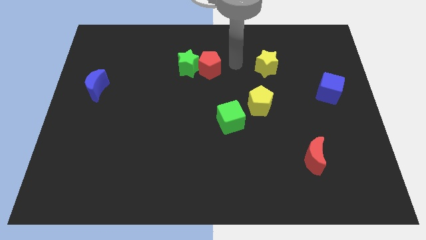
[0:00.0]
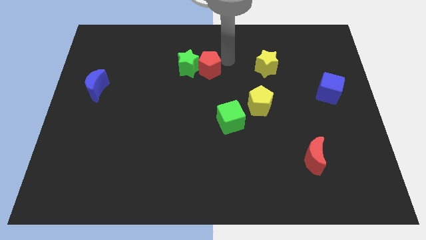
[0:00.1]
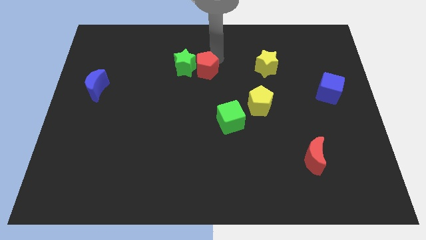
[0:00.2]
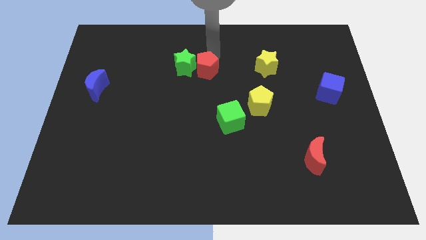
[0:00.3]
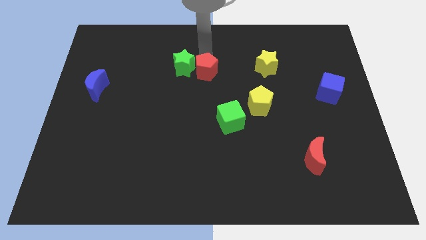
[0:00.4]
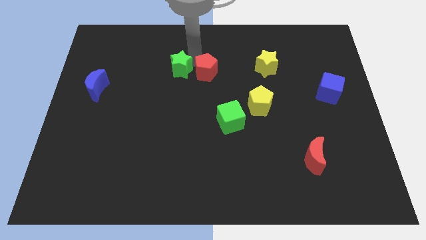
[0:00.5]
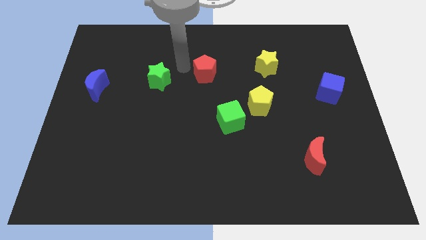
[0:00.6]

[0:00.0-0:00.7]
move the red pentagon away from the green star

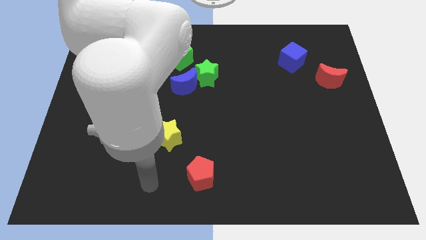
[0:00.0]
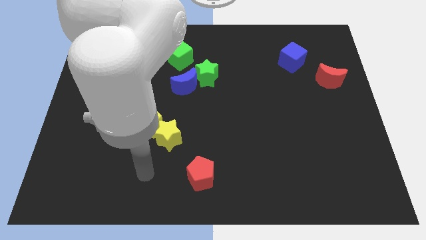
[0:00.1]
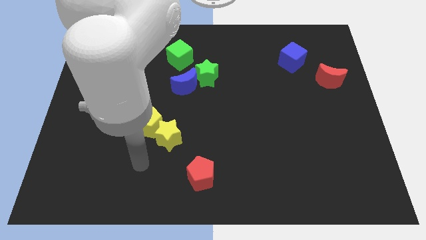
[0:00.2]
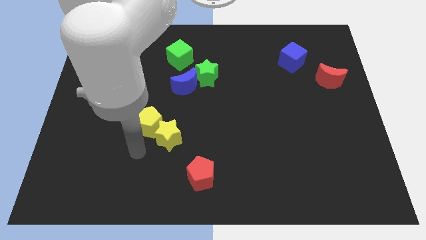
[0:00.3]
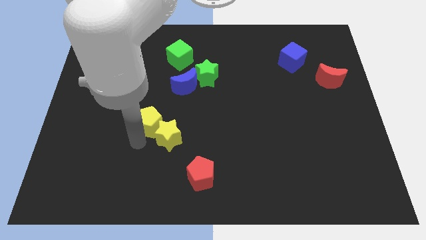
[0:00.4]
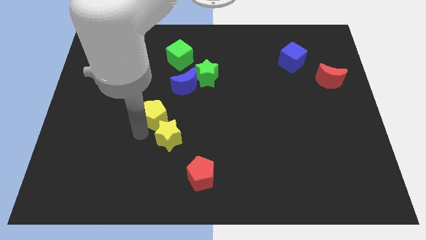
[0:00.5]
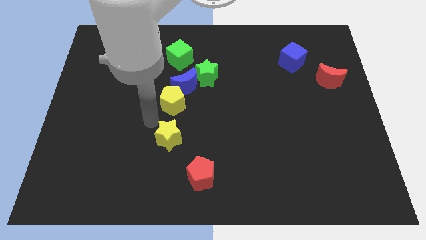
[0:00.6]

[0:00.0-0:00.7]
separate the yellow star from the yellow pentagon

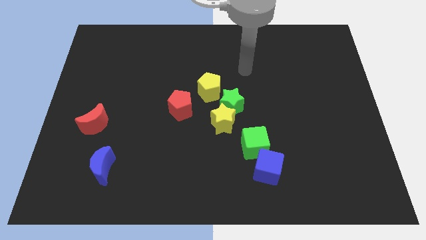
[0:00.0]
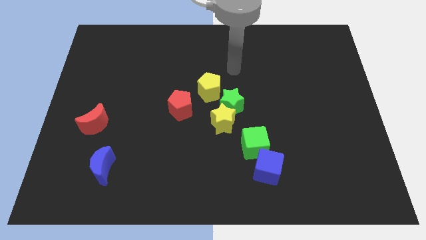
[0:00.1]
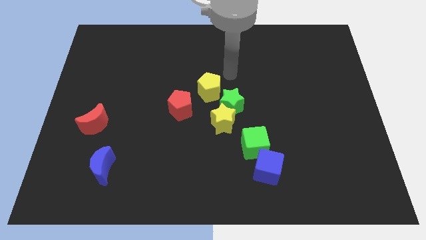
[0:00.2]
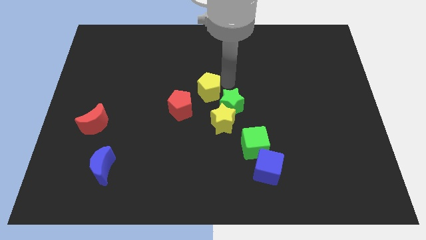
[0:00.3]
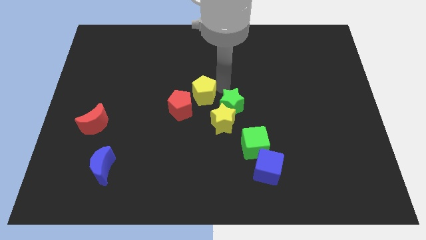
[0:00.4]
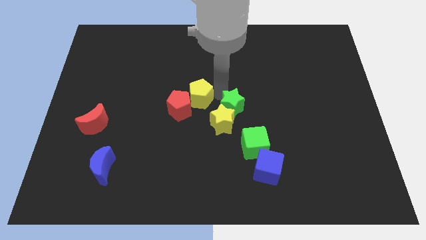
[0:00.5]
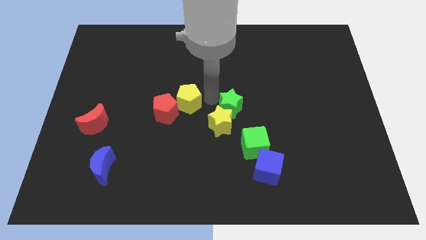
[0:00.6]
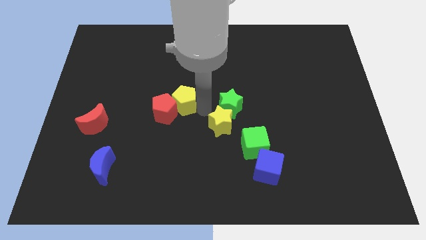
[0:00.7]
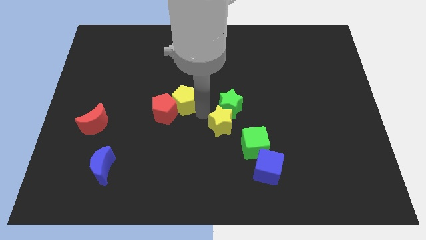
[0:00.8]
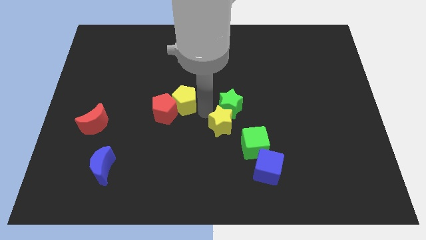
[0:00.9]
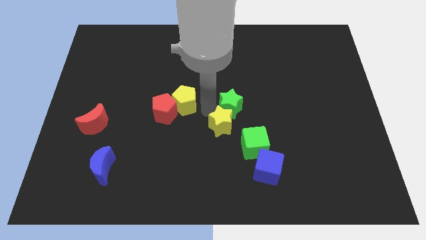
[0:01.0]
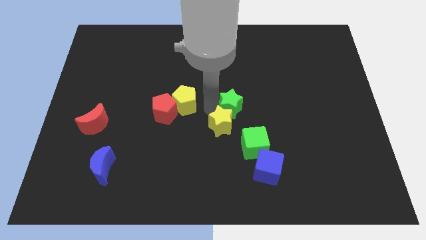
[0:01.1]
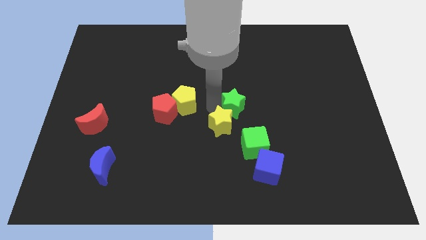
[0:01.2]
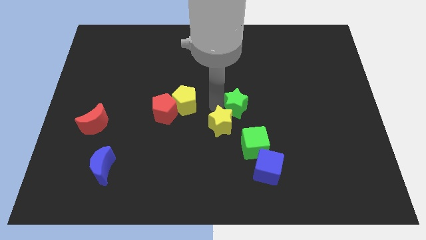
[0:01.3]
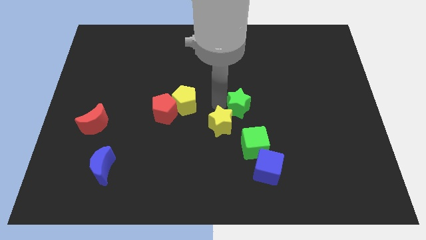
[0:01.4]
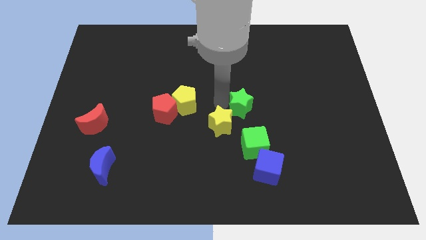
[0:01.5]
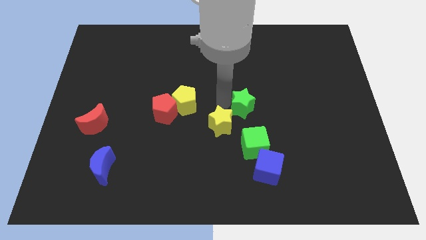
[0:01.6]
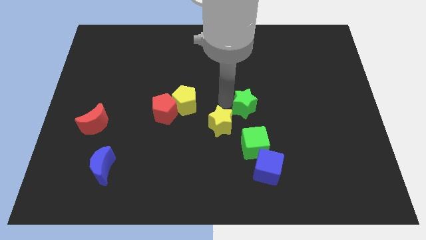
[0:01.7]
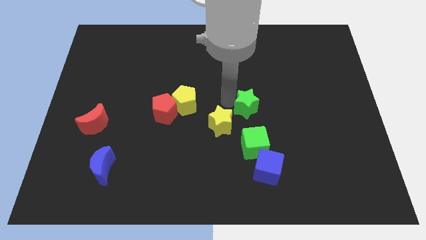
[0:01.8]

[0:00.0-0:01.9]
pull the green star apart from the yellow star and yellow pentagon

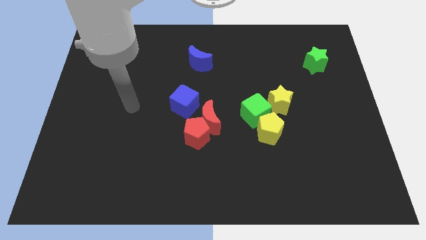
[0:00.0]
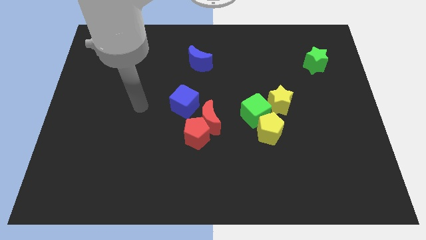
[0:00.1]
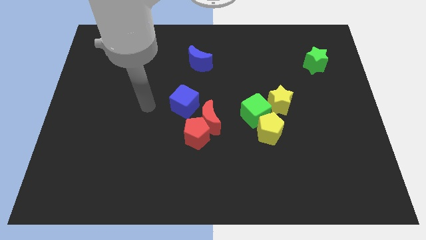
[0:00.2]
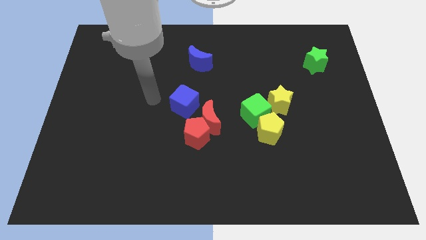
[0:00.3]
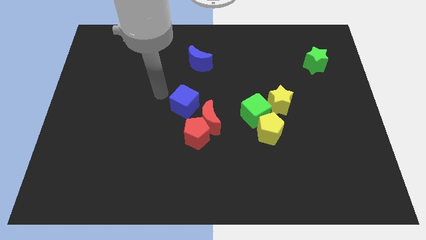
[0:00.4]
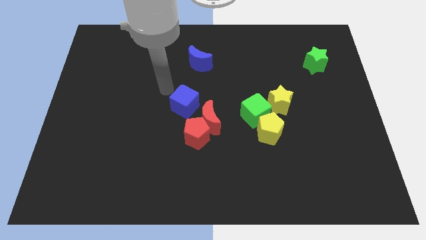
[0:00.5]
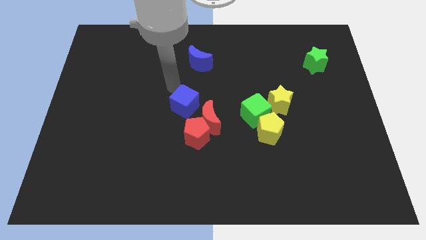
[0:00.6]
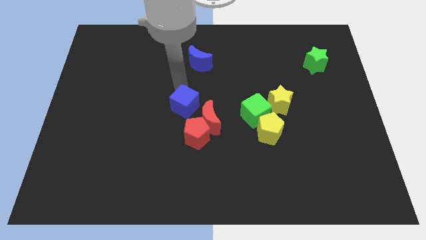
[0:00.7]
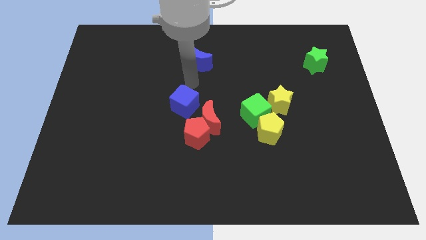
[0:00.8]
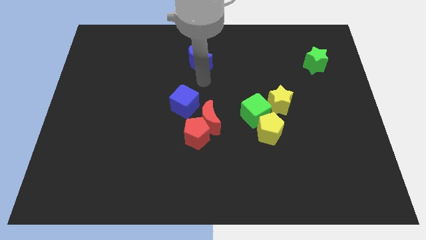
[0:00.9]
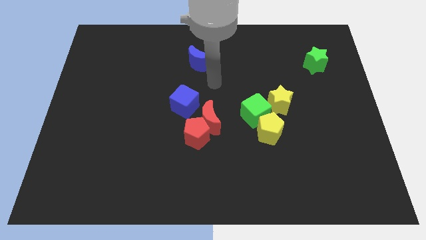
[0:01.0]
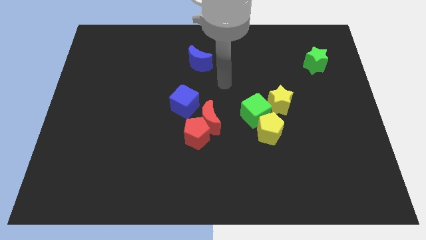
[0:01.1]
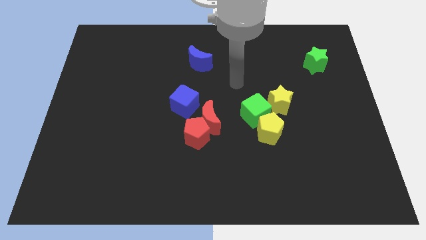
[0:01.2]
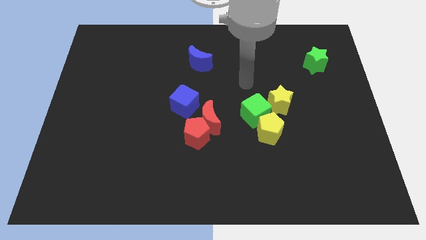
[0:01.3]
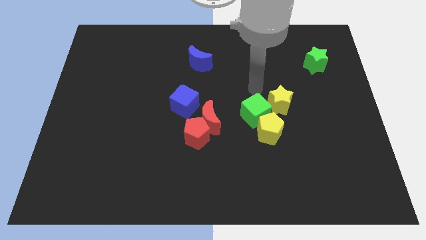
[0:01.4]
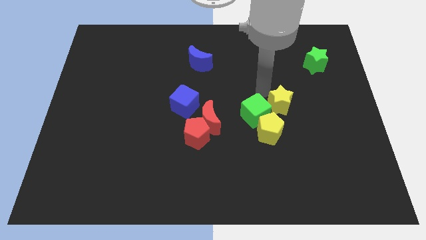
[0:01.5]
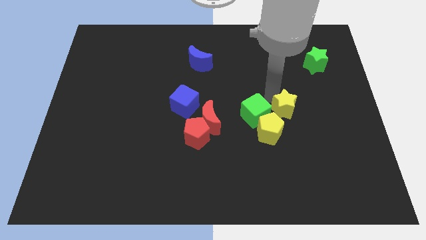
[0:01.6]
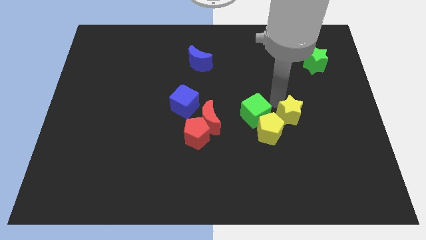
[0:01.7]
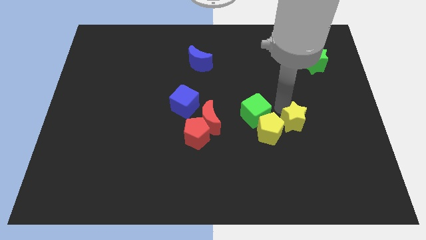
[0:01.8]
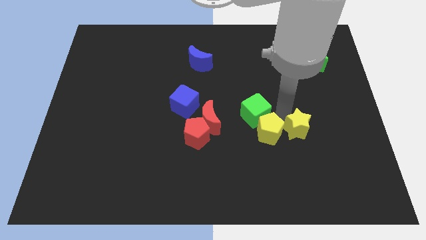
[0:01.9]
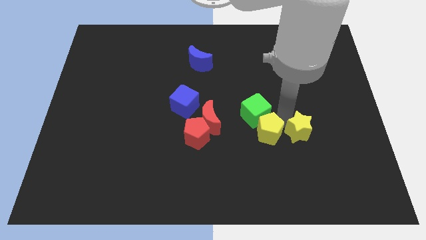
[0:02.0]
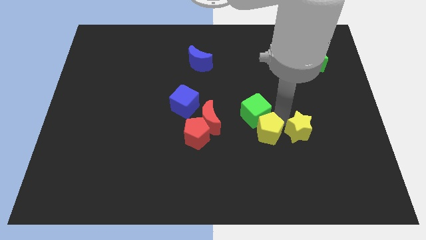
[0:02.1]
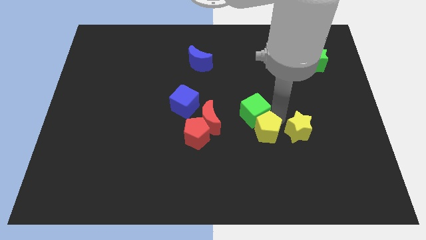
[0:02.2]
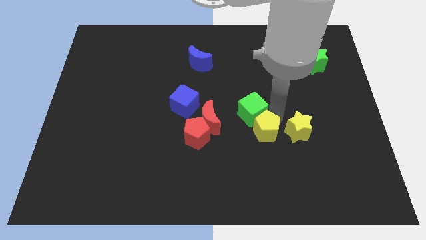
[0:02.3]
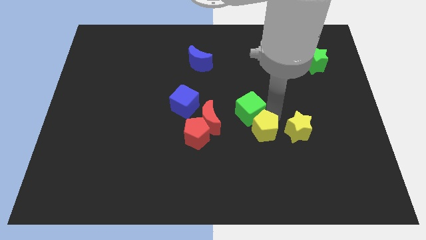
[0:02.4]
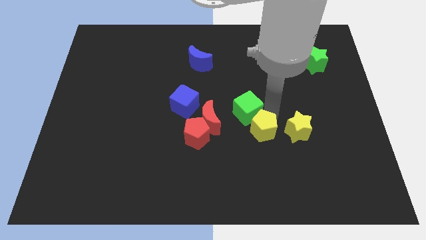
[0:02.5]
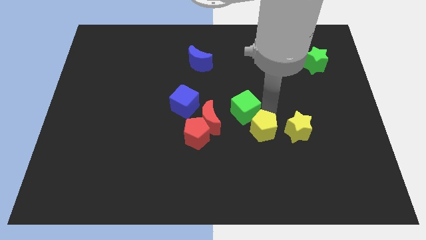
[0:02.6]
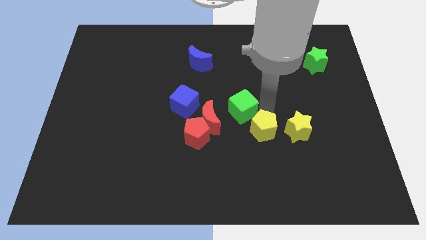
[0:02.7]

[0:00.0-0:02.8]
move the green cube away from the yellow pentagon and yellow star

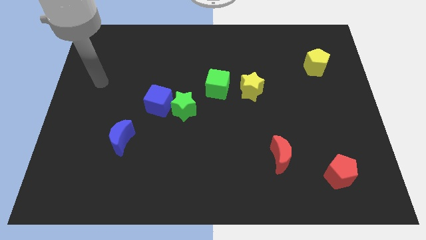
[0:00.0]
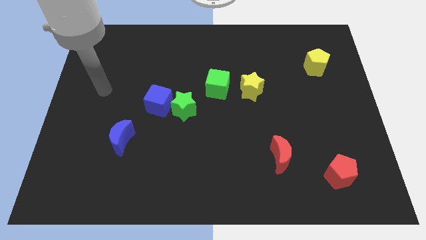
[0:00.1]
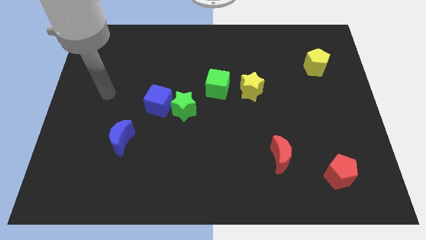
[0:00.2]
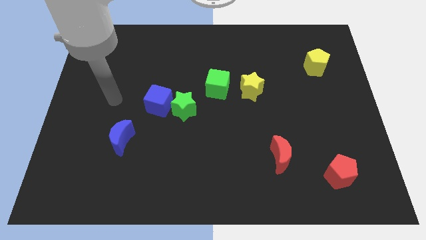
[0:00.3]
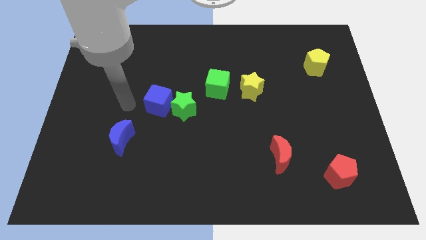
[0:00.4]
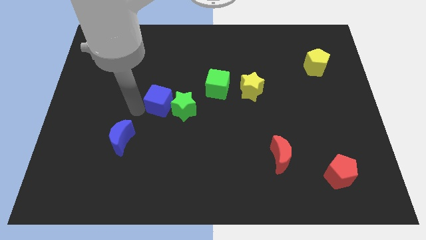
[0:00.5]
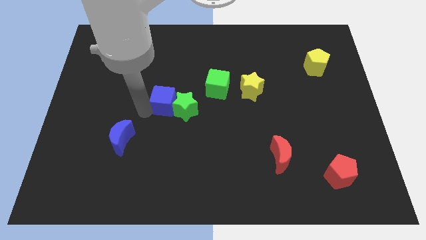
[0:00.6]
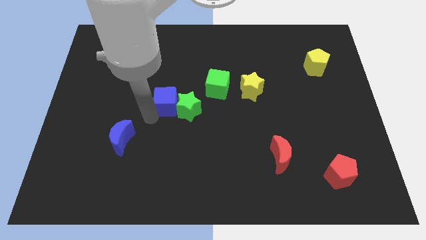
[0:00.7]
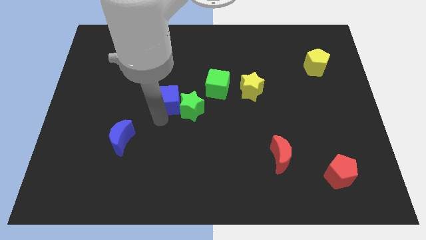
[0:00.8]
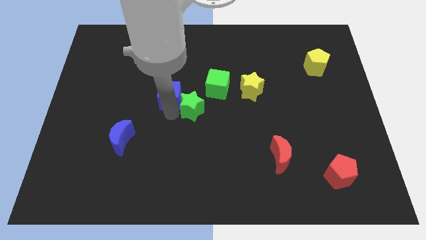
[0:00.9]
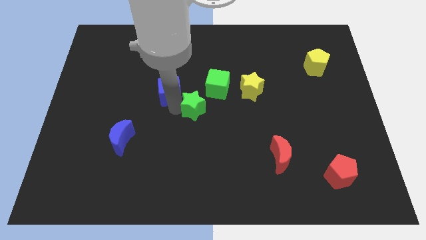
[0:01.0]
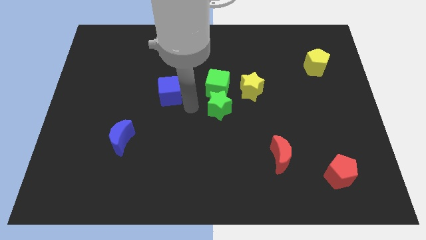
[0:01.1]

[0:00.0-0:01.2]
pull the blue cube apart from the green star

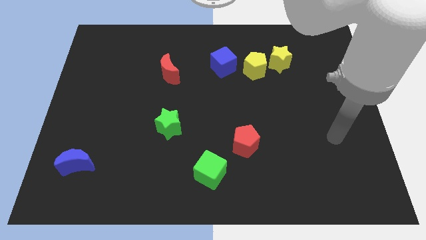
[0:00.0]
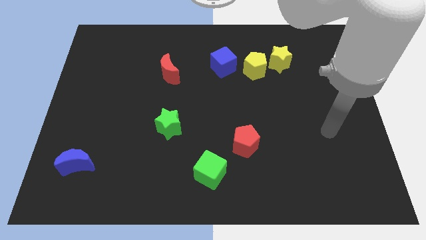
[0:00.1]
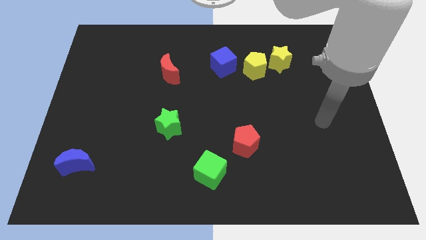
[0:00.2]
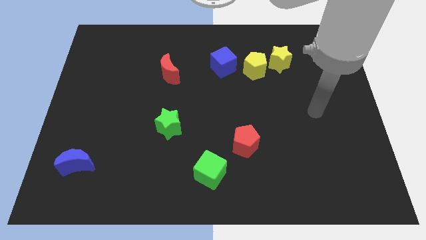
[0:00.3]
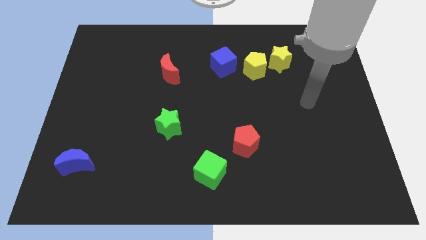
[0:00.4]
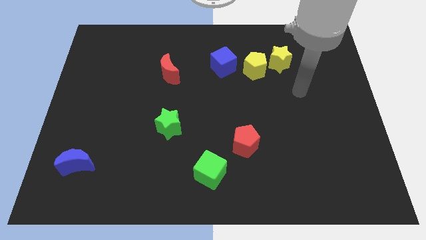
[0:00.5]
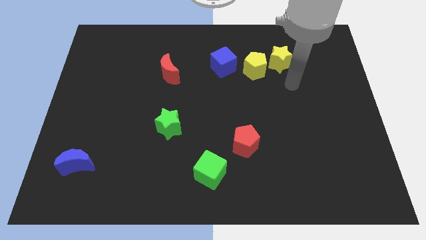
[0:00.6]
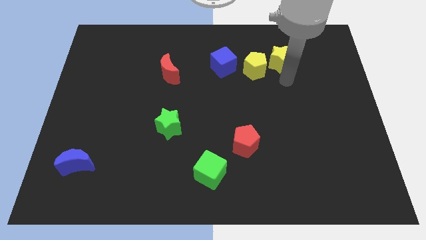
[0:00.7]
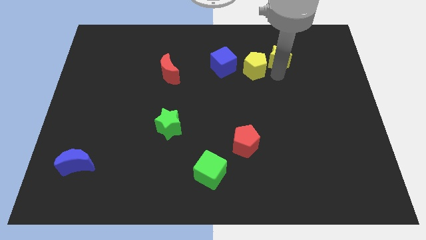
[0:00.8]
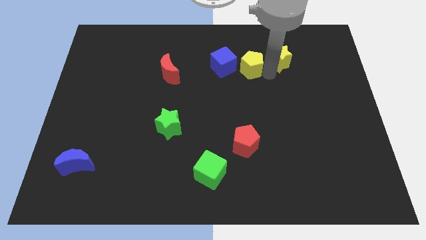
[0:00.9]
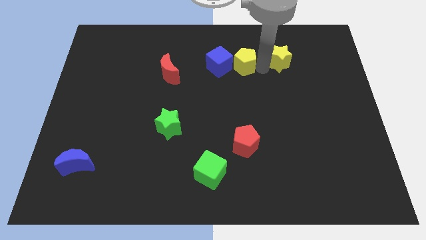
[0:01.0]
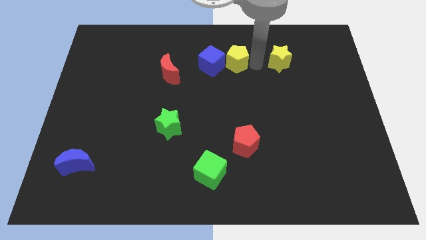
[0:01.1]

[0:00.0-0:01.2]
move the yellow star away from the yellow pentagon

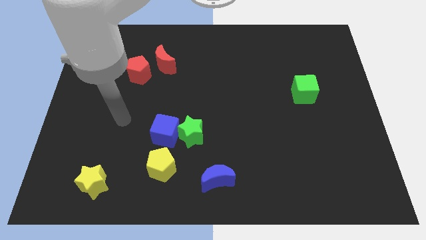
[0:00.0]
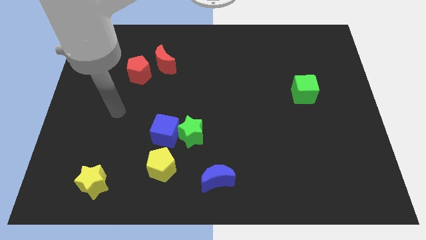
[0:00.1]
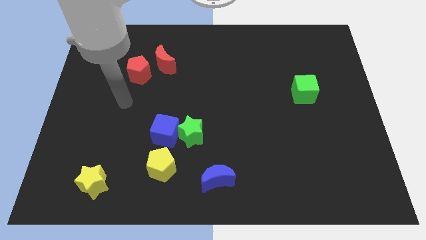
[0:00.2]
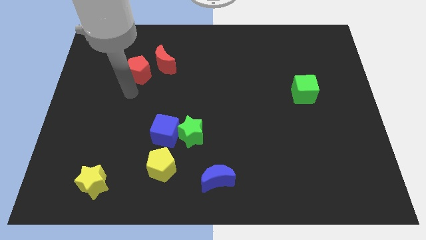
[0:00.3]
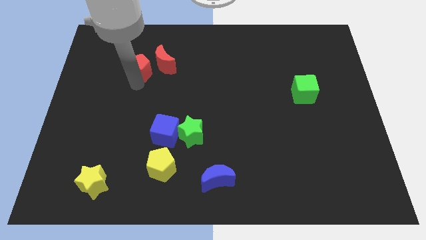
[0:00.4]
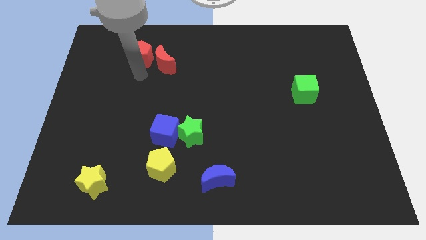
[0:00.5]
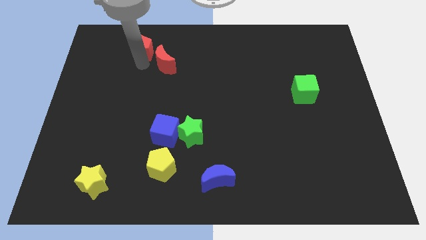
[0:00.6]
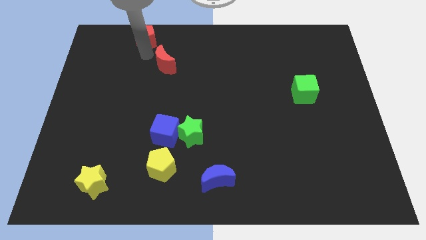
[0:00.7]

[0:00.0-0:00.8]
pull the red moon apart from the red pentagon

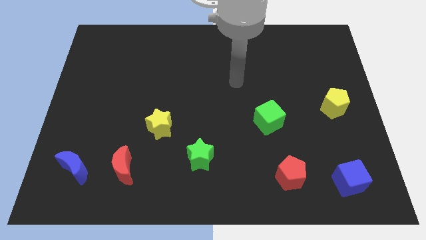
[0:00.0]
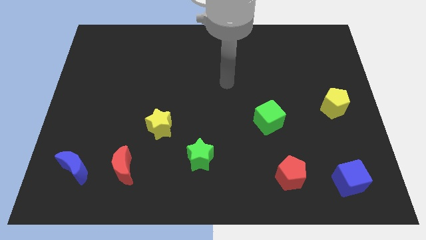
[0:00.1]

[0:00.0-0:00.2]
move the red moon away from the blue moon
